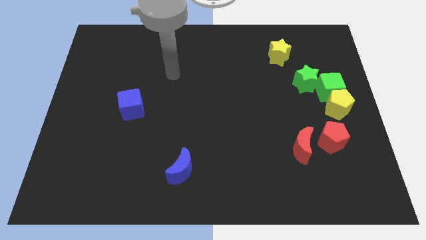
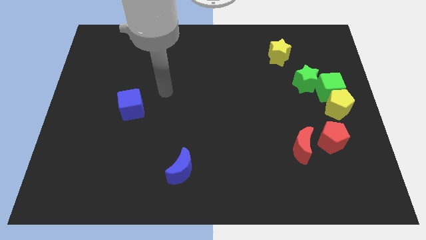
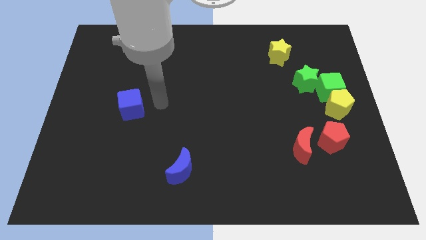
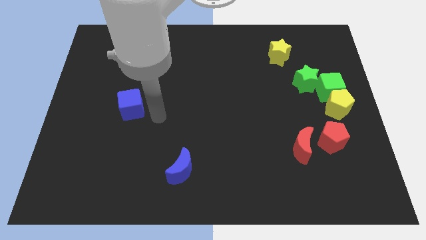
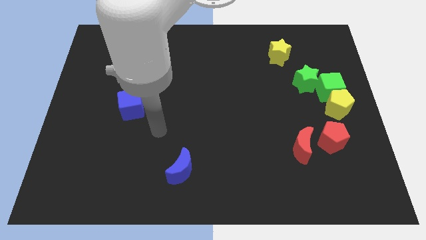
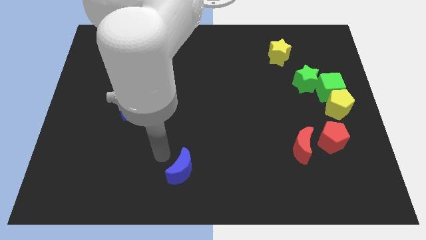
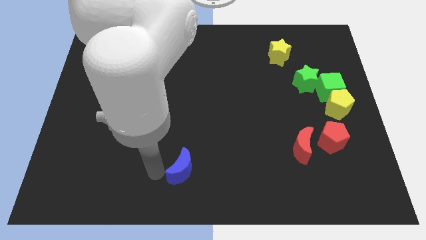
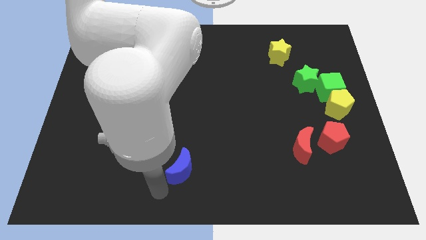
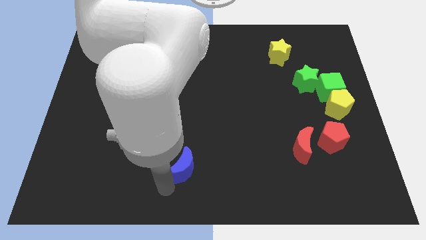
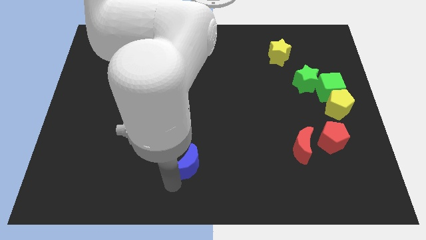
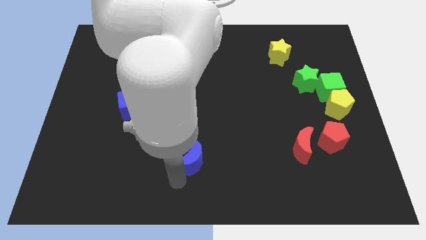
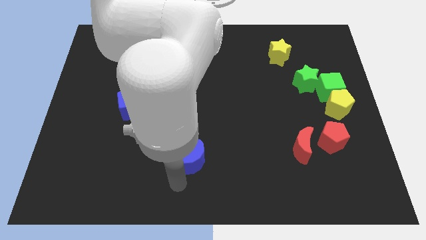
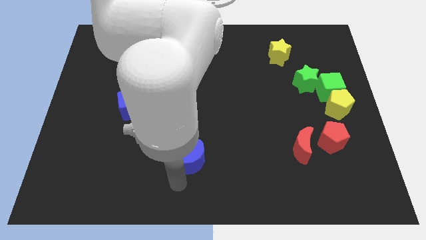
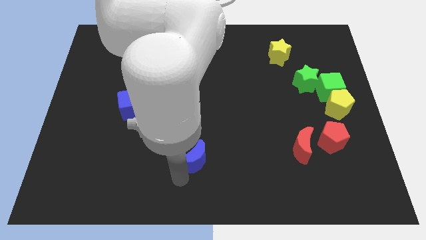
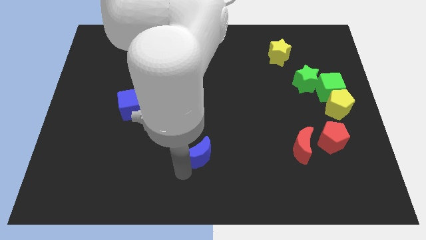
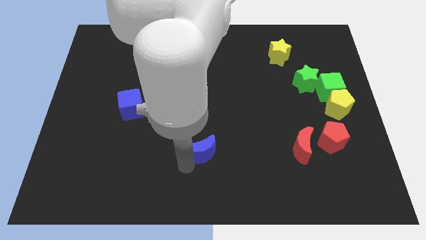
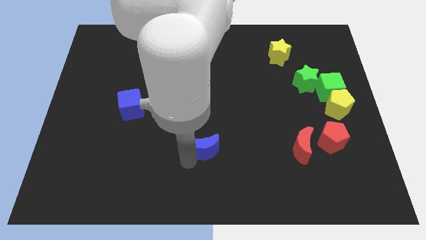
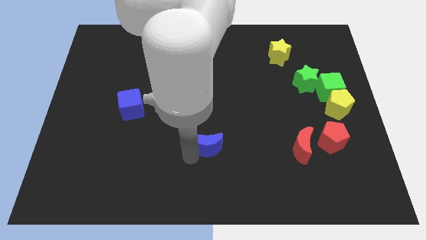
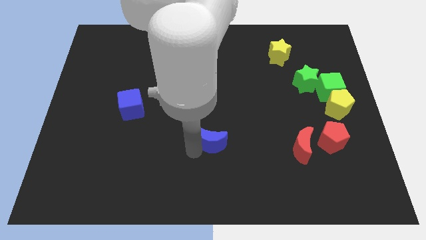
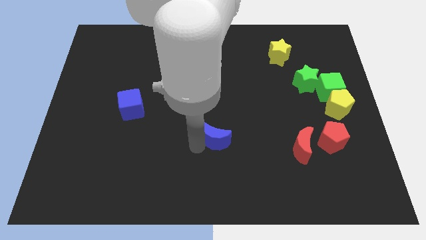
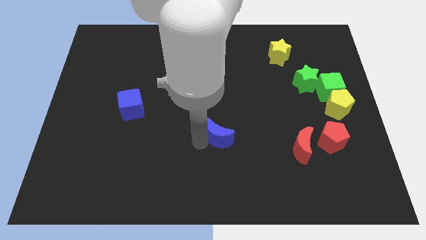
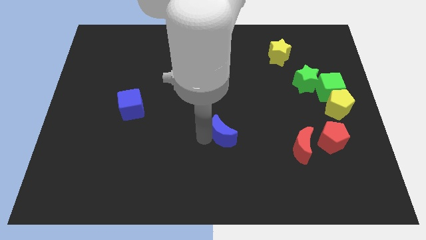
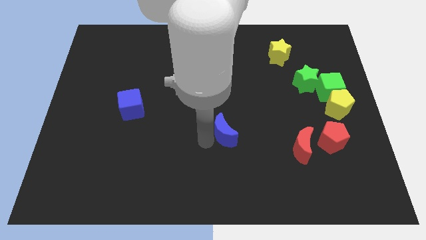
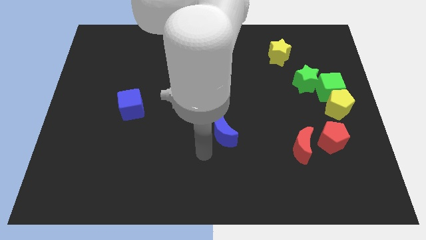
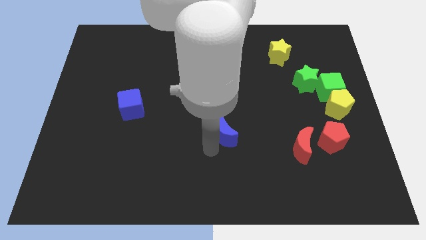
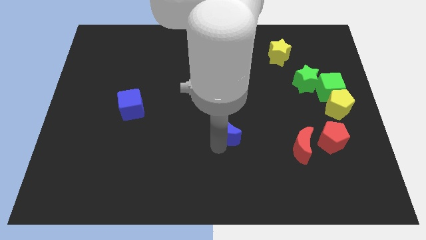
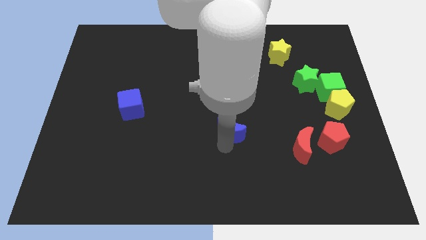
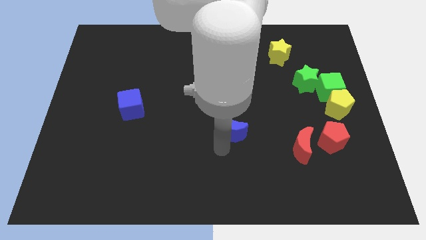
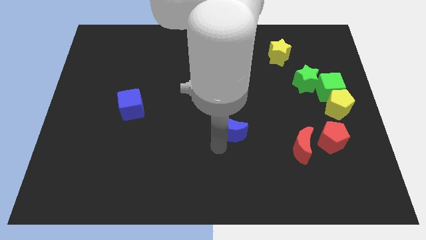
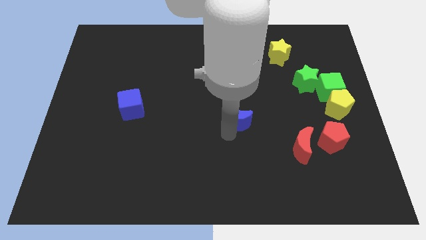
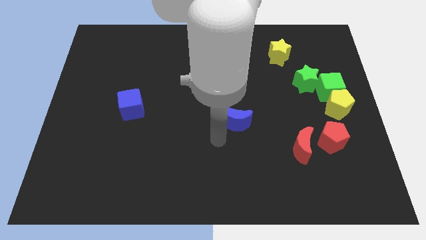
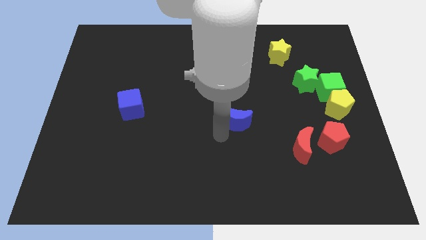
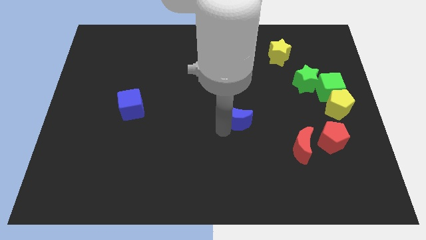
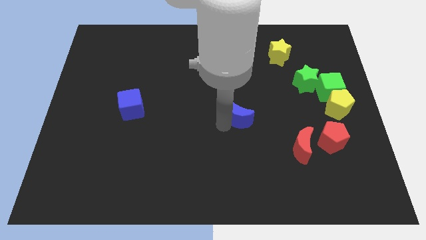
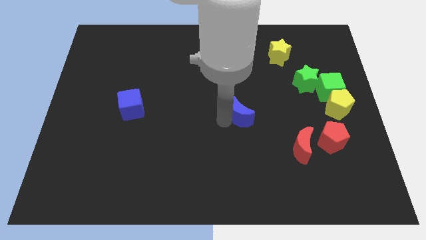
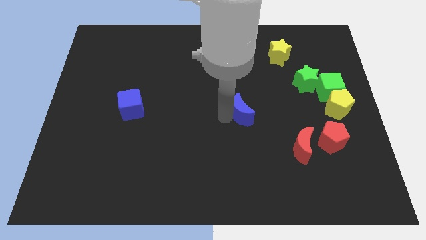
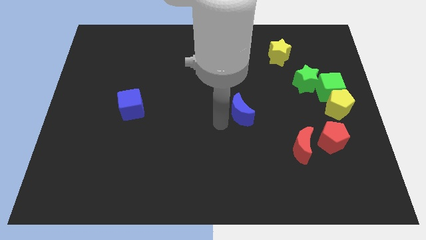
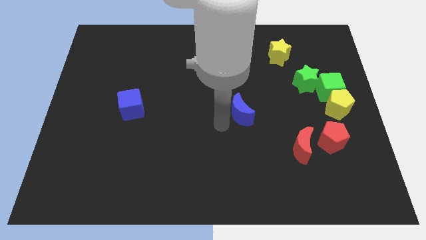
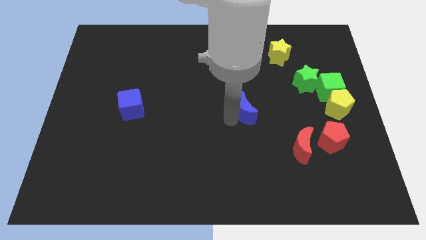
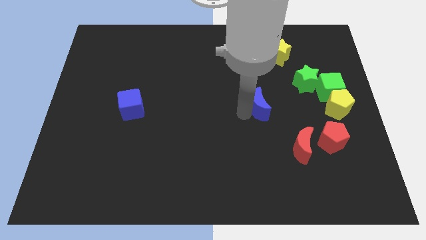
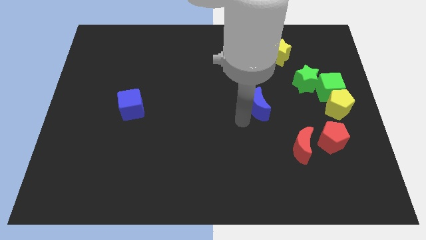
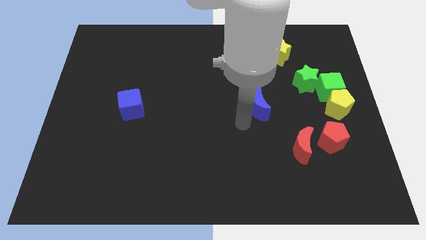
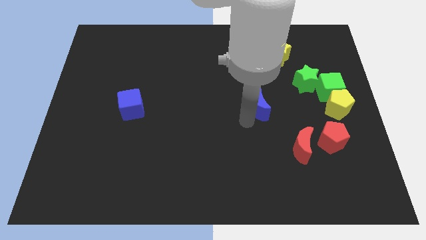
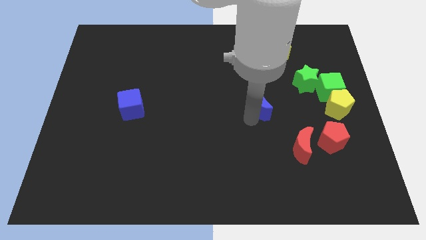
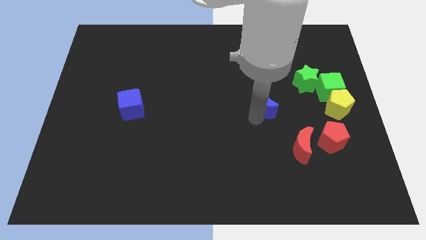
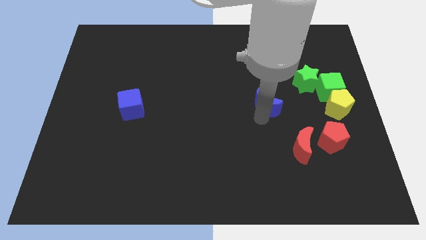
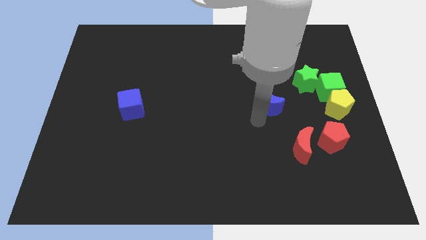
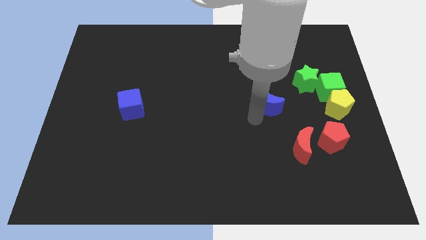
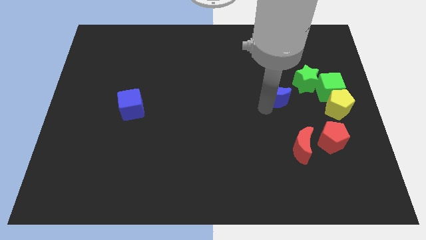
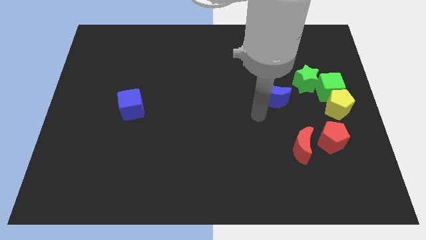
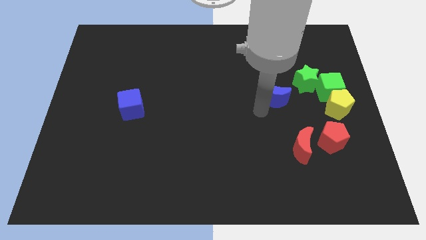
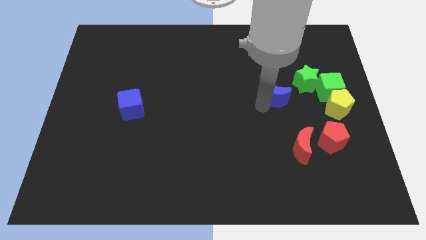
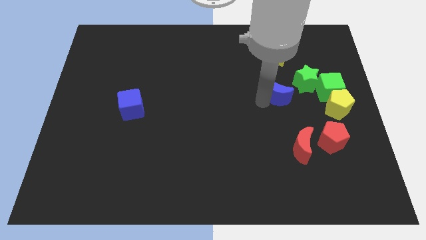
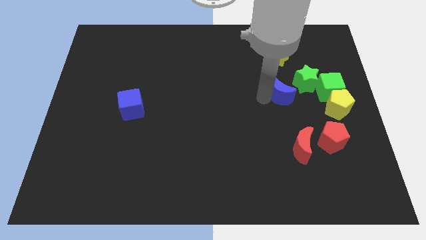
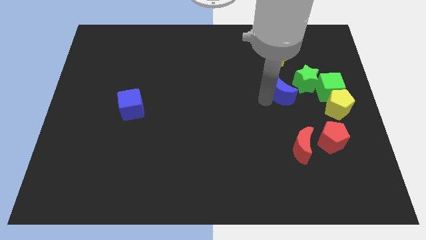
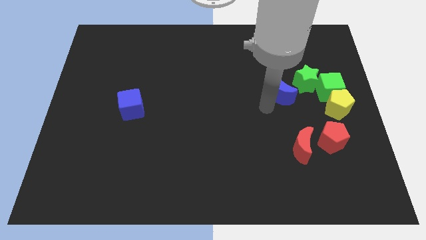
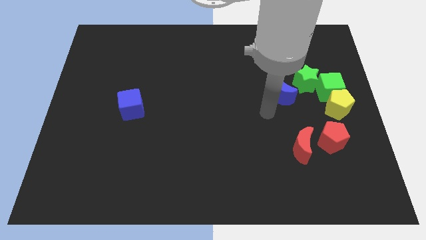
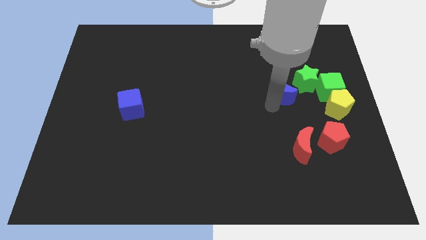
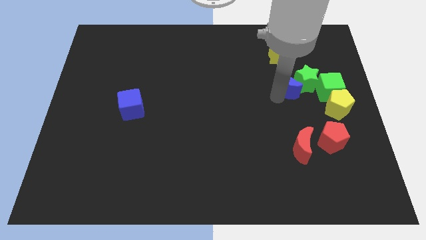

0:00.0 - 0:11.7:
slide the blue moon close to the green star

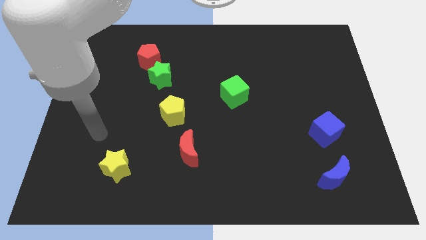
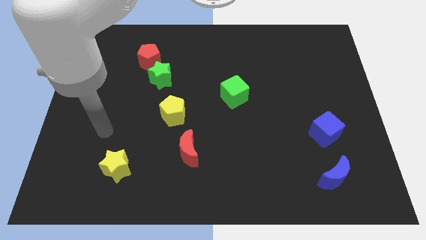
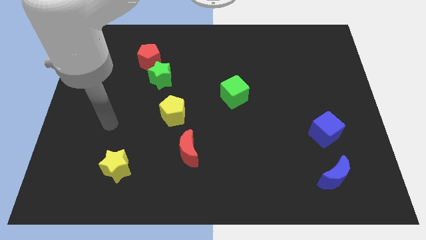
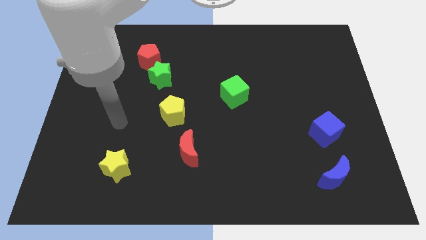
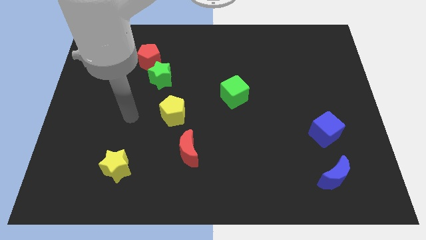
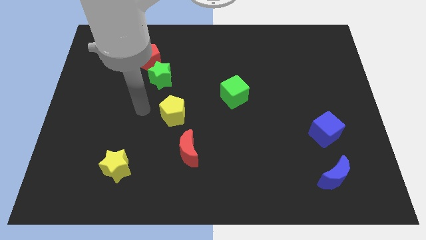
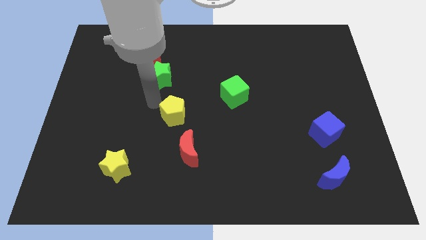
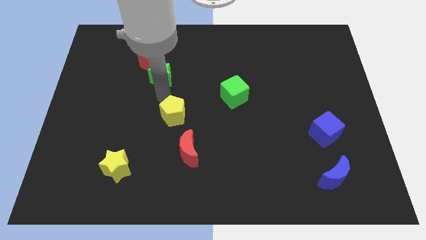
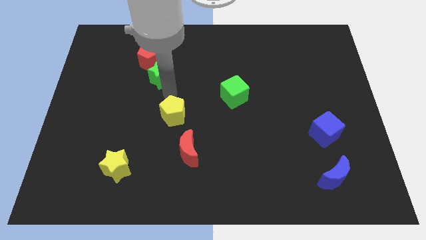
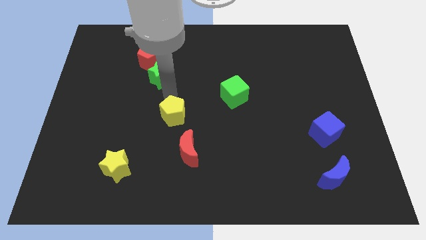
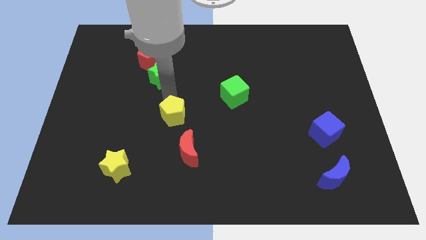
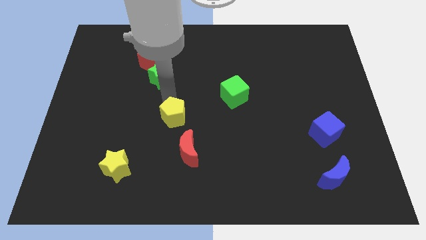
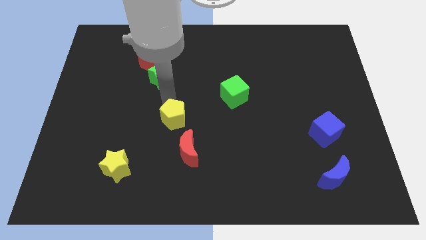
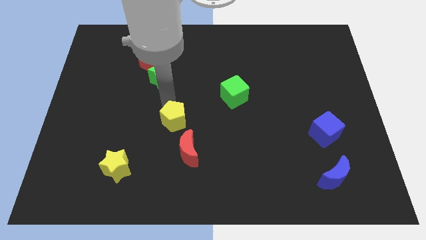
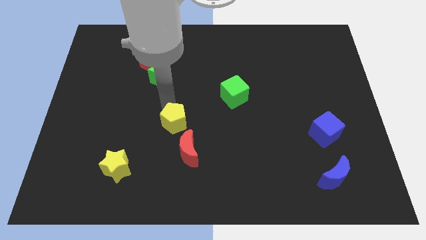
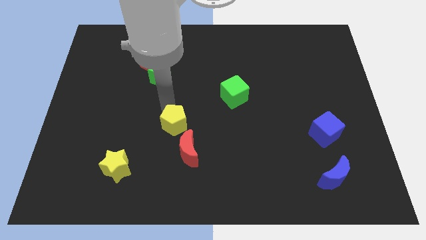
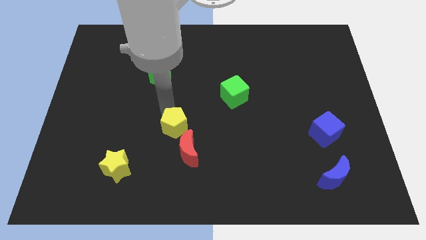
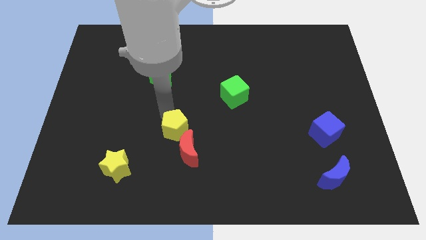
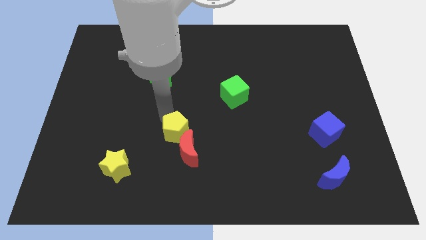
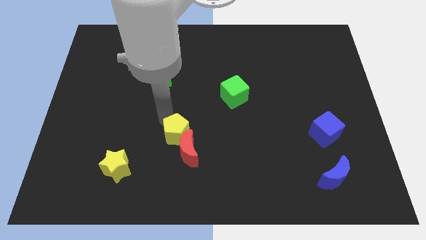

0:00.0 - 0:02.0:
push the yellow pentagon to the red moon

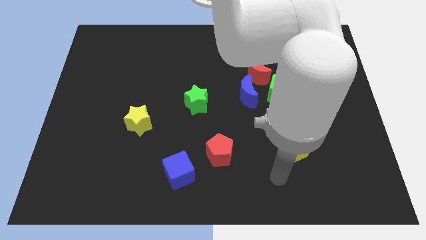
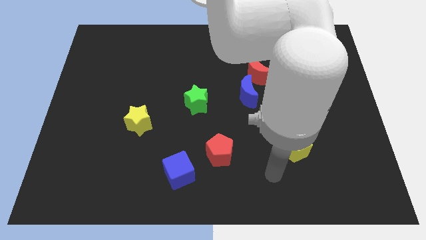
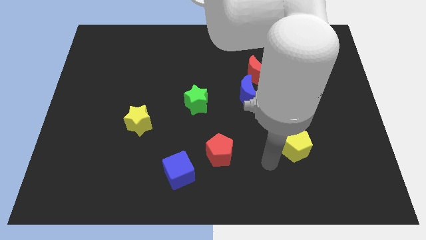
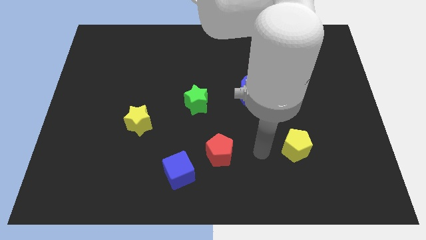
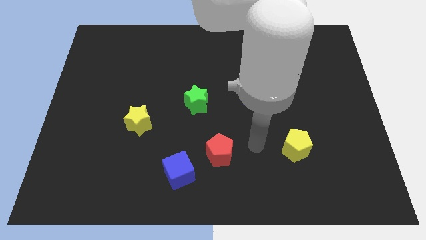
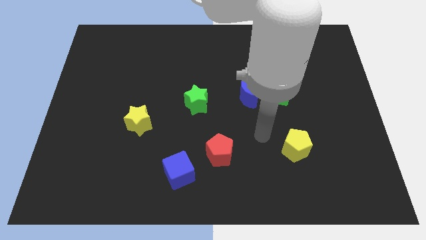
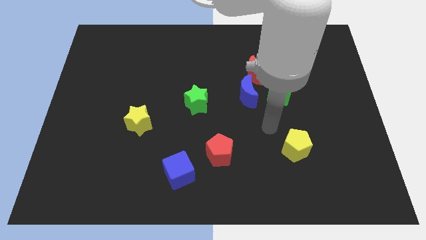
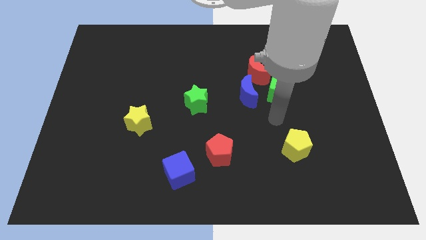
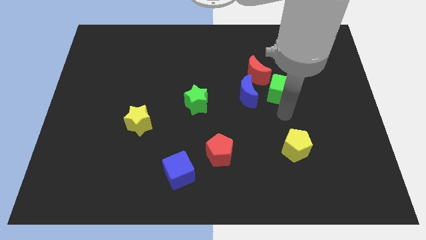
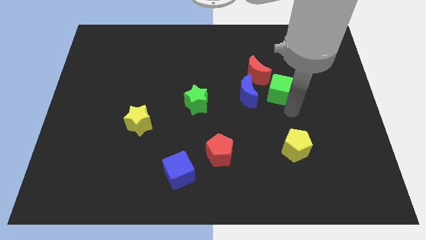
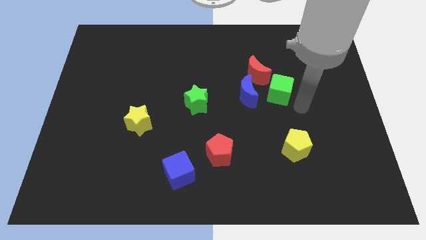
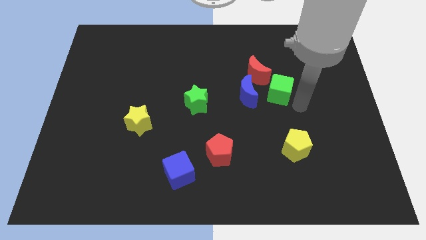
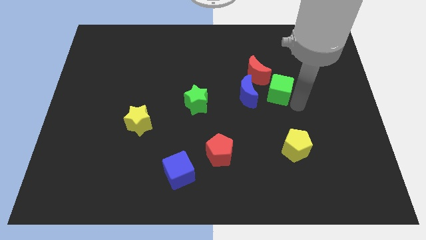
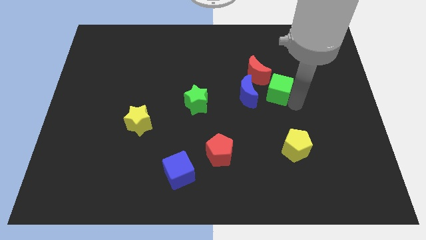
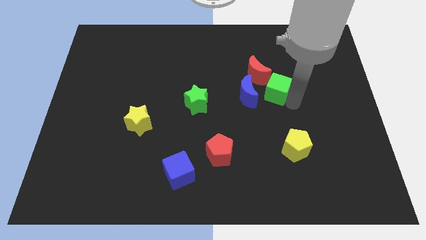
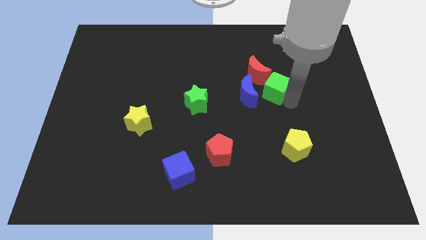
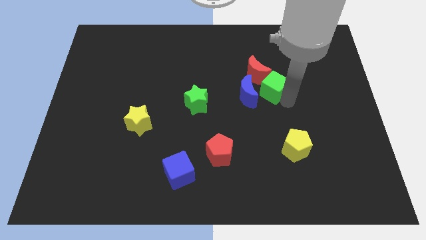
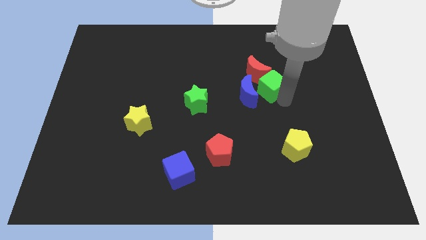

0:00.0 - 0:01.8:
put the green cube towards the red moon
